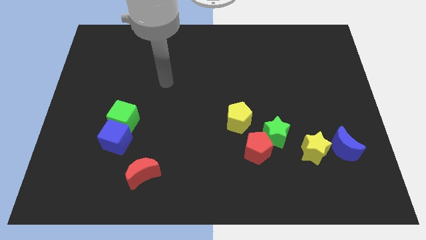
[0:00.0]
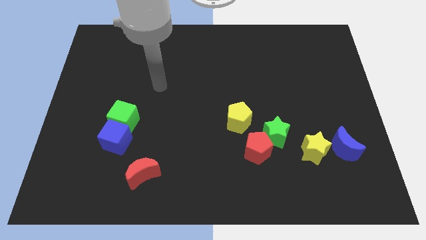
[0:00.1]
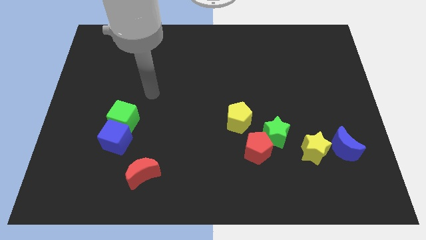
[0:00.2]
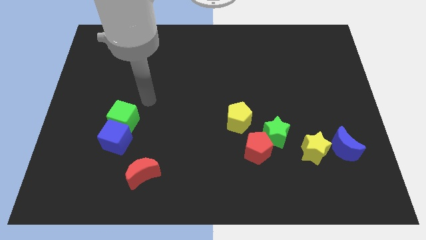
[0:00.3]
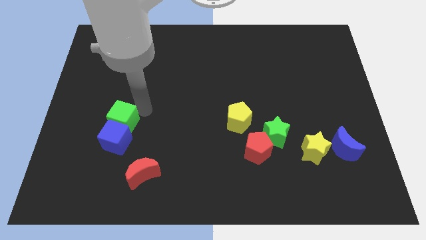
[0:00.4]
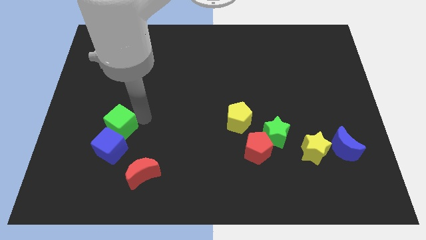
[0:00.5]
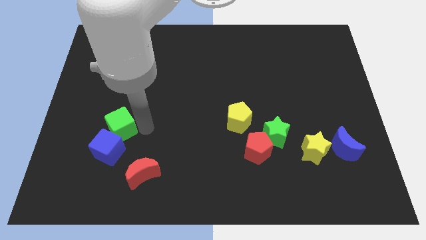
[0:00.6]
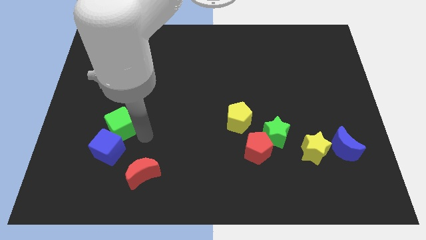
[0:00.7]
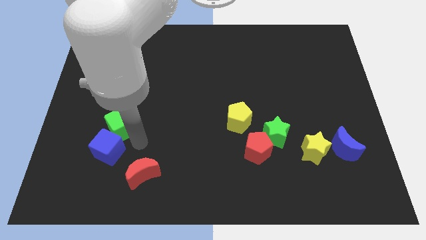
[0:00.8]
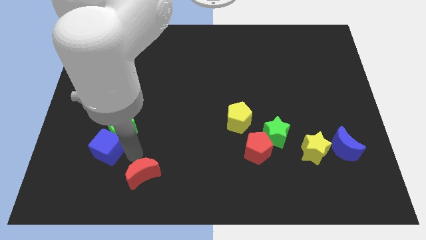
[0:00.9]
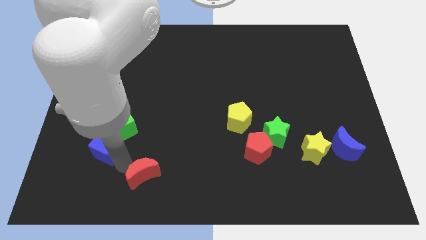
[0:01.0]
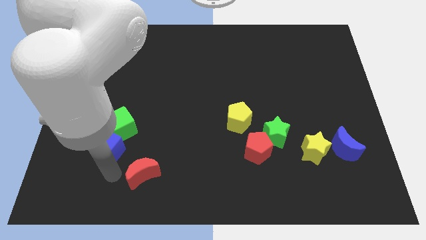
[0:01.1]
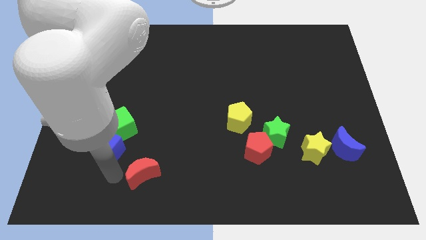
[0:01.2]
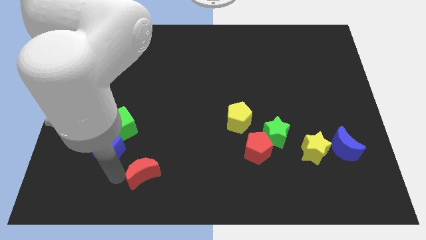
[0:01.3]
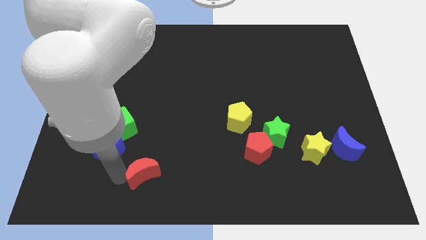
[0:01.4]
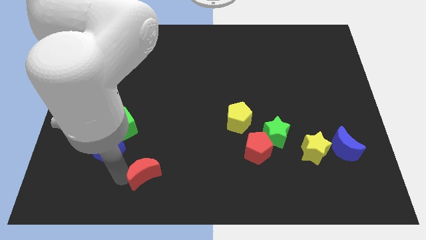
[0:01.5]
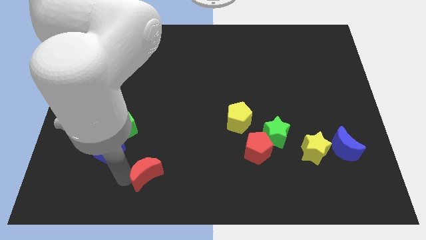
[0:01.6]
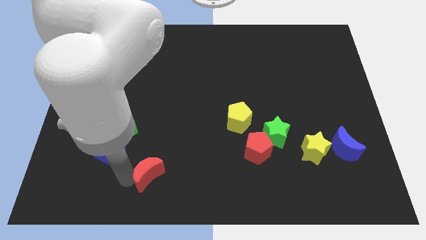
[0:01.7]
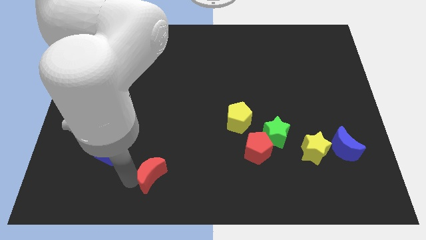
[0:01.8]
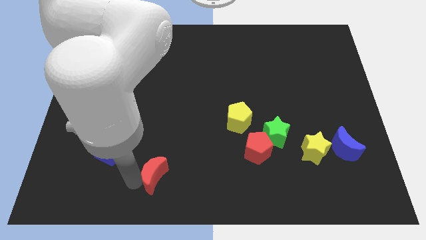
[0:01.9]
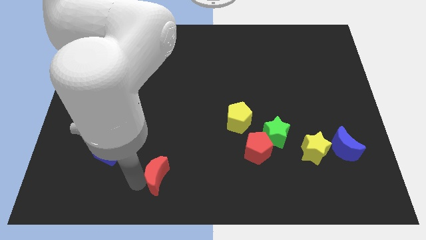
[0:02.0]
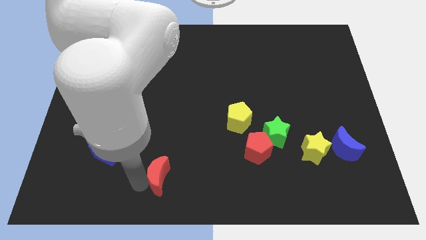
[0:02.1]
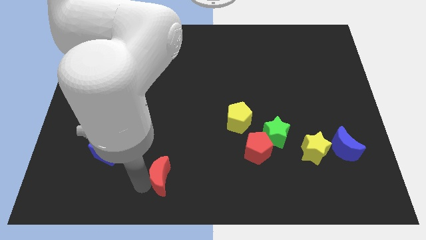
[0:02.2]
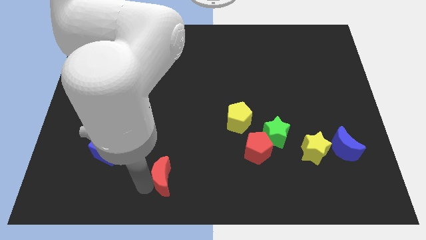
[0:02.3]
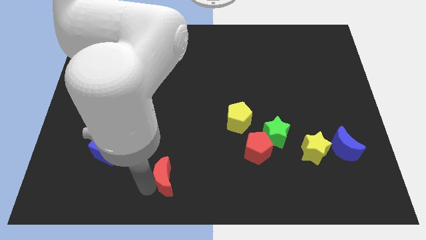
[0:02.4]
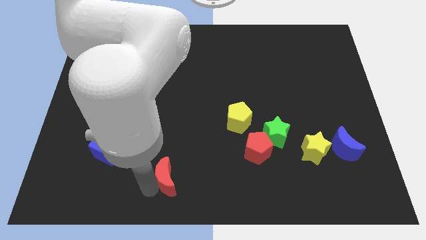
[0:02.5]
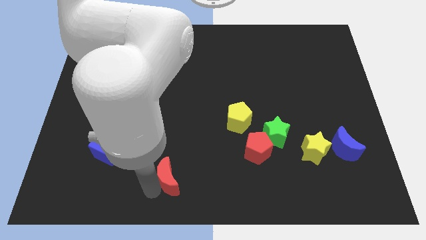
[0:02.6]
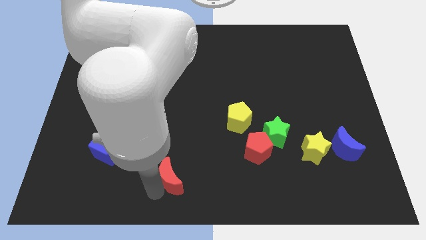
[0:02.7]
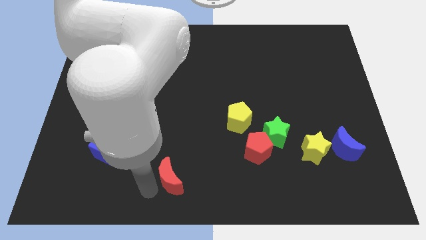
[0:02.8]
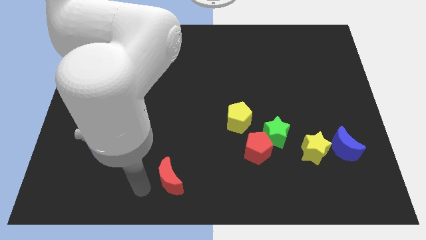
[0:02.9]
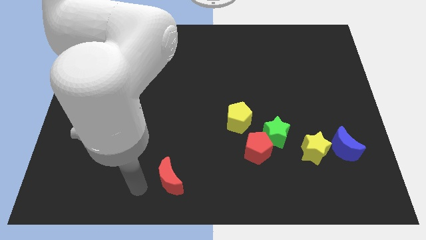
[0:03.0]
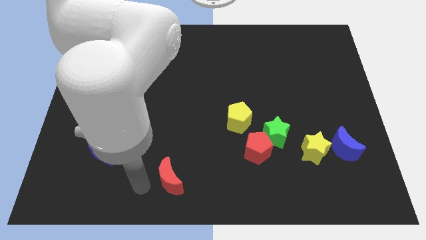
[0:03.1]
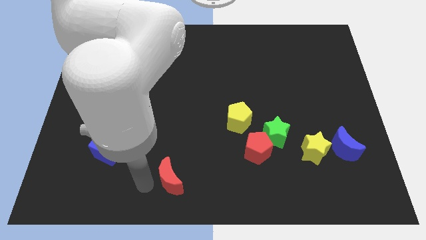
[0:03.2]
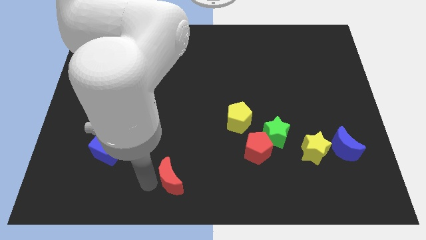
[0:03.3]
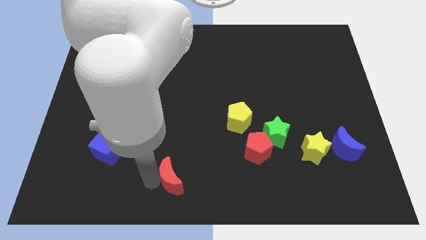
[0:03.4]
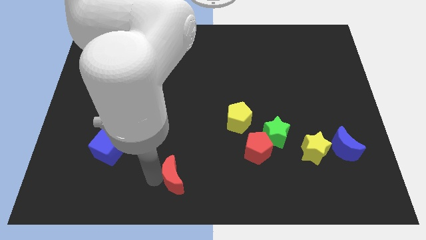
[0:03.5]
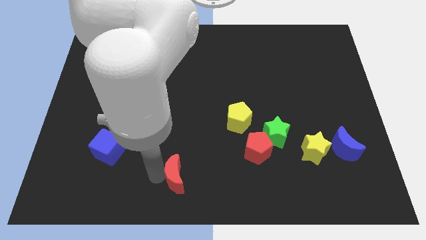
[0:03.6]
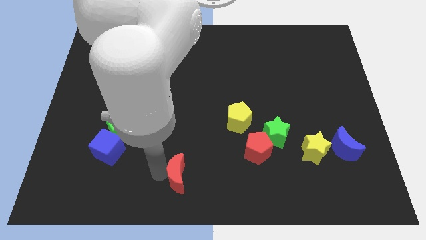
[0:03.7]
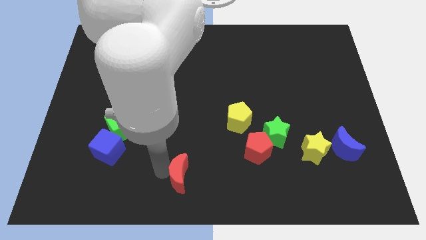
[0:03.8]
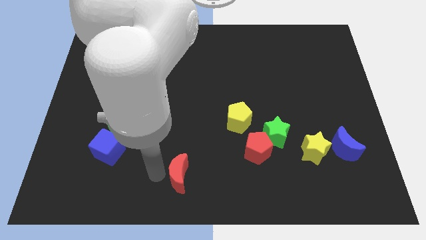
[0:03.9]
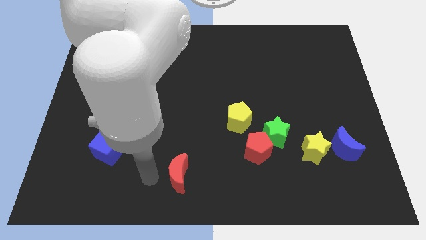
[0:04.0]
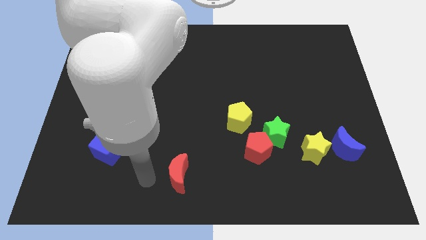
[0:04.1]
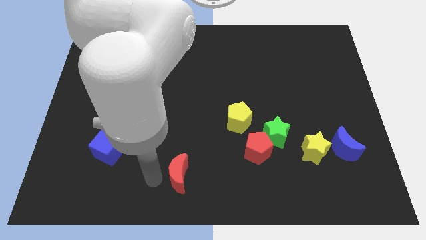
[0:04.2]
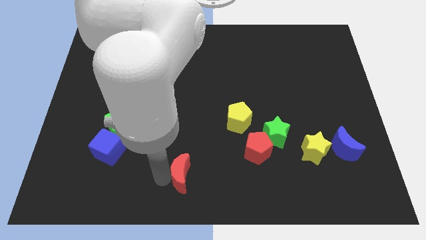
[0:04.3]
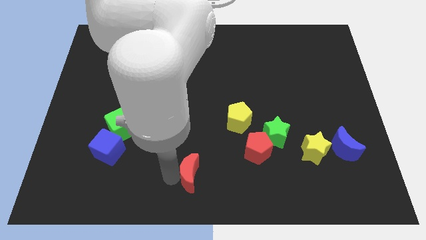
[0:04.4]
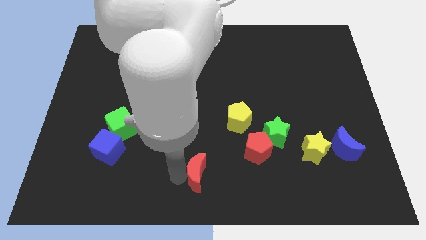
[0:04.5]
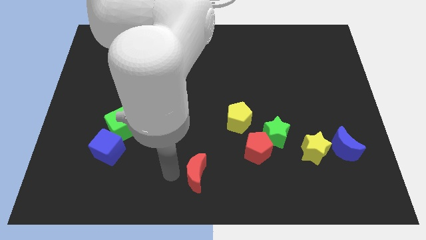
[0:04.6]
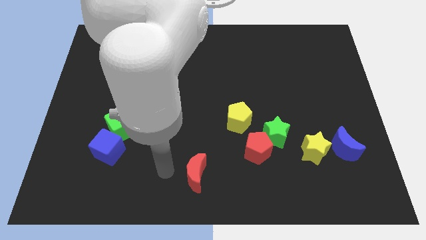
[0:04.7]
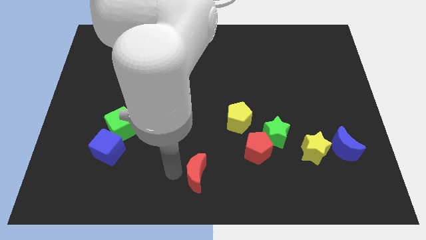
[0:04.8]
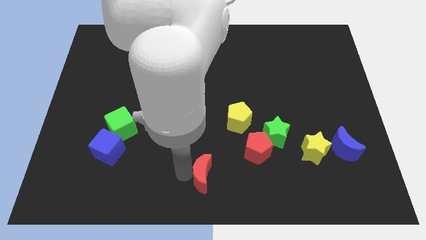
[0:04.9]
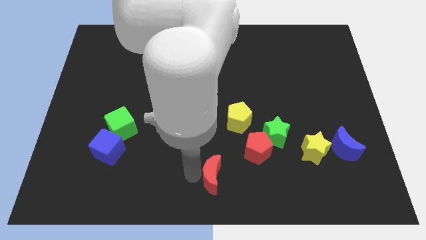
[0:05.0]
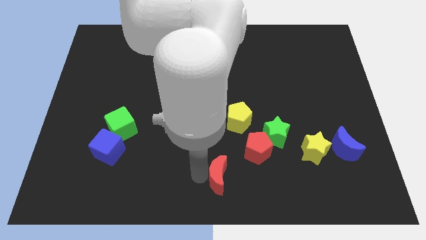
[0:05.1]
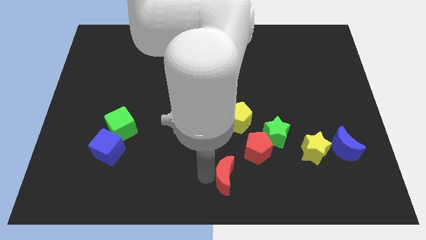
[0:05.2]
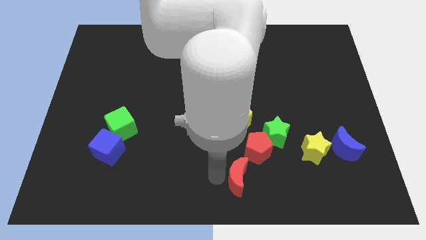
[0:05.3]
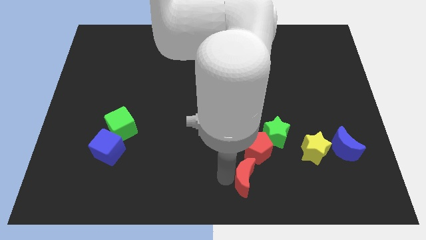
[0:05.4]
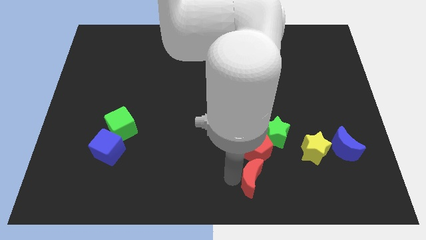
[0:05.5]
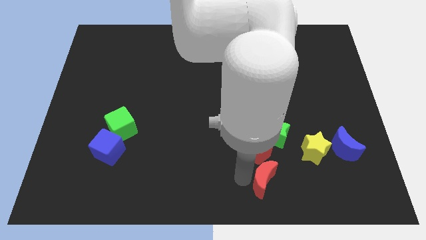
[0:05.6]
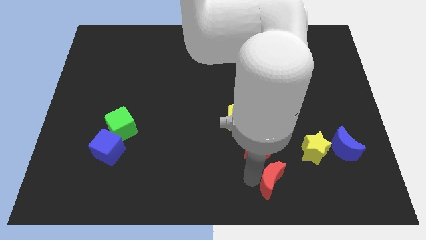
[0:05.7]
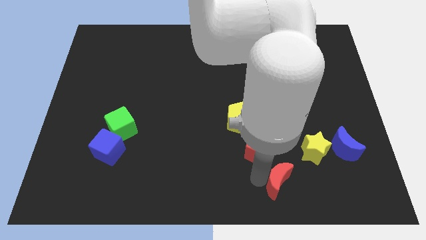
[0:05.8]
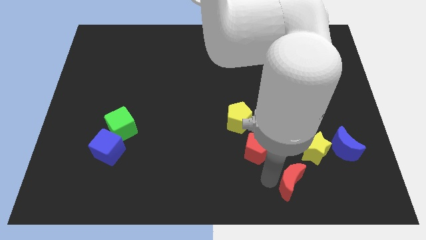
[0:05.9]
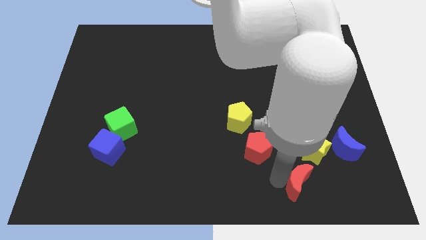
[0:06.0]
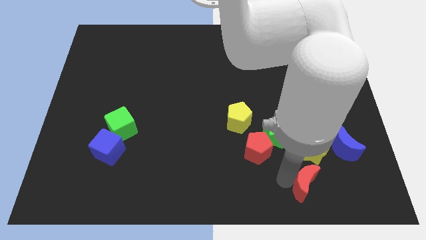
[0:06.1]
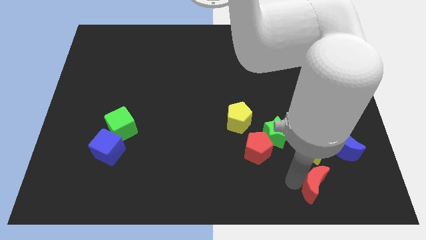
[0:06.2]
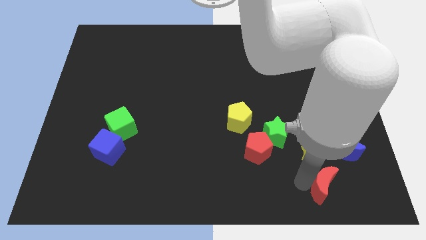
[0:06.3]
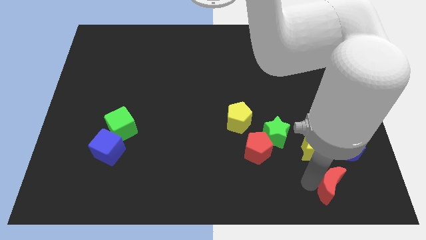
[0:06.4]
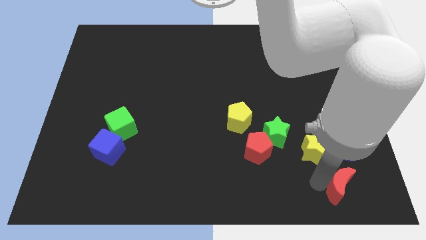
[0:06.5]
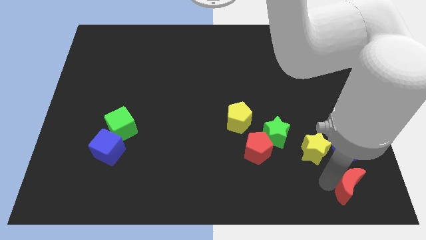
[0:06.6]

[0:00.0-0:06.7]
slide the red moon to the bottom right
